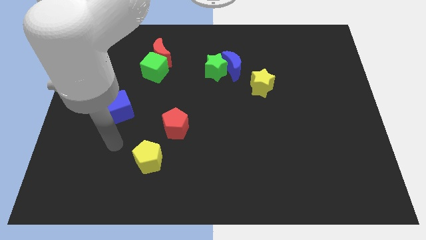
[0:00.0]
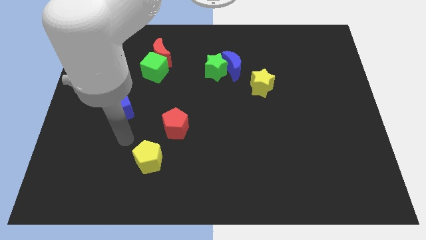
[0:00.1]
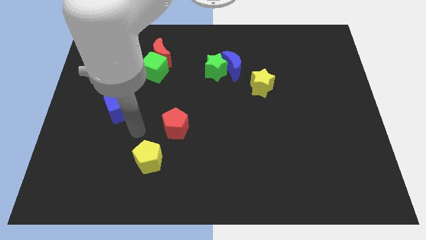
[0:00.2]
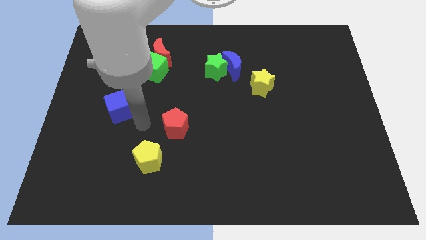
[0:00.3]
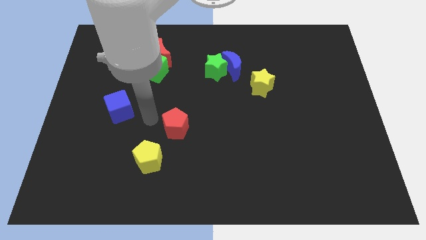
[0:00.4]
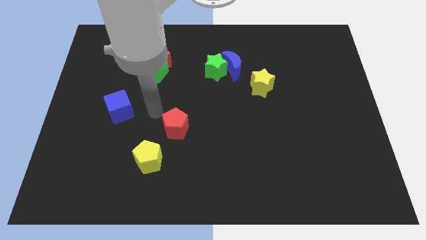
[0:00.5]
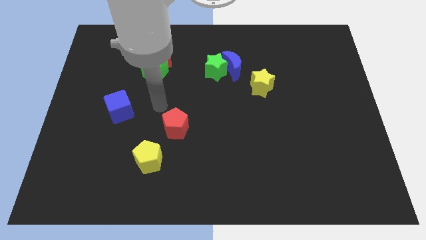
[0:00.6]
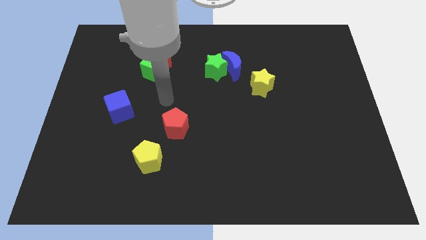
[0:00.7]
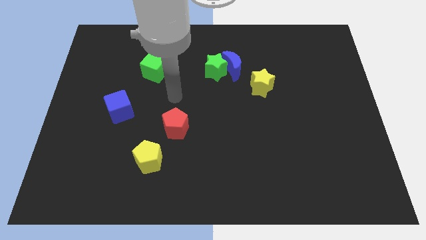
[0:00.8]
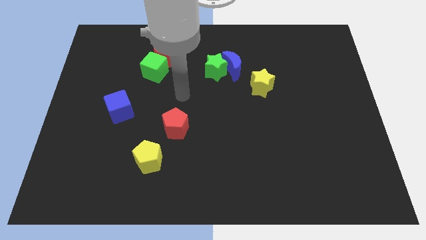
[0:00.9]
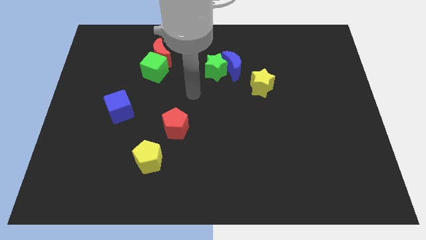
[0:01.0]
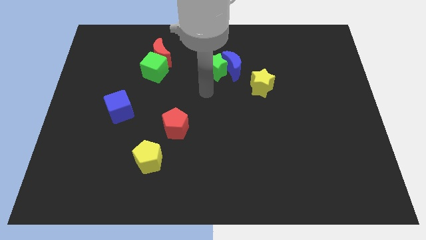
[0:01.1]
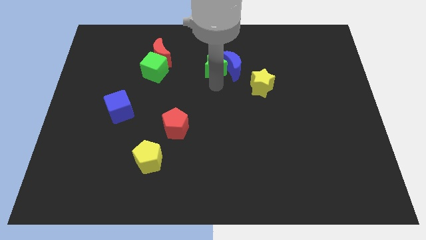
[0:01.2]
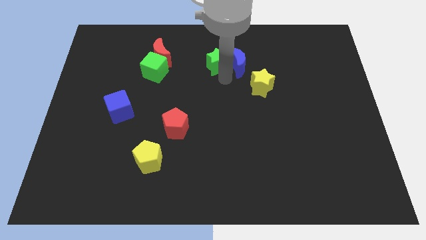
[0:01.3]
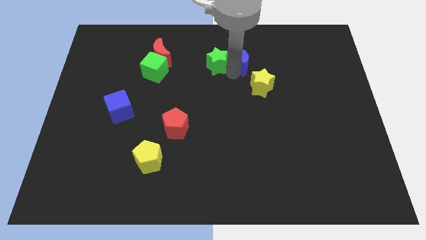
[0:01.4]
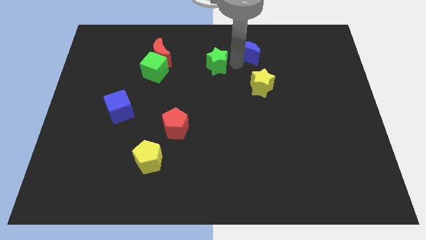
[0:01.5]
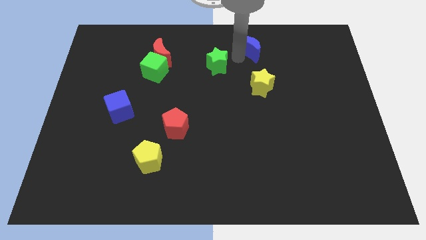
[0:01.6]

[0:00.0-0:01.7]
separate the green star from the blue moon

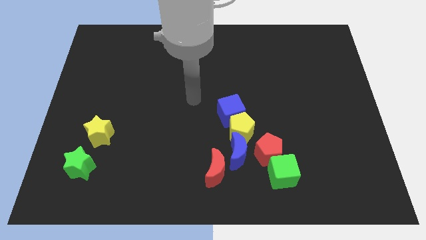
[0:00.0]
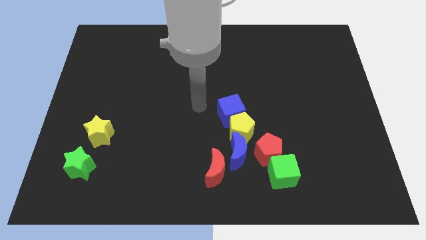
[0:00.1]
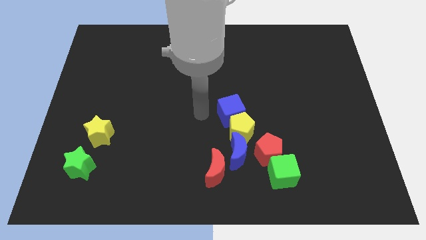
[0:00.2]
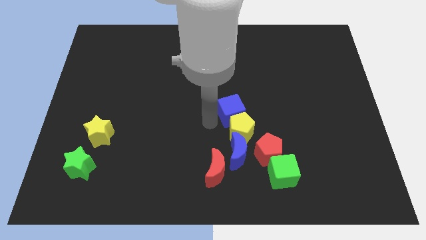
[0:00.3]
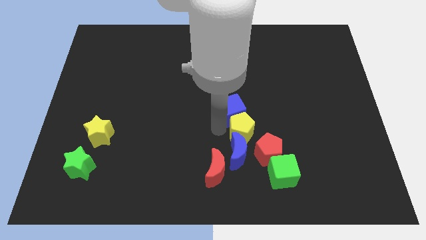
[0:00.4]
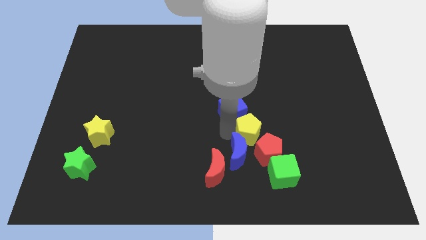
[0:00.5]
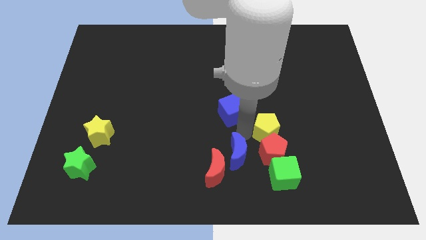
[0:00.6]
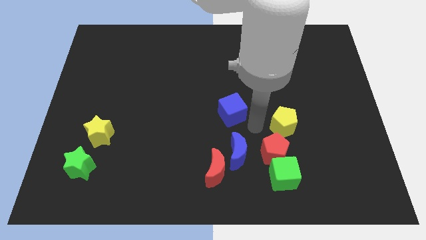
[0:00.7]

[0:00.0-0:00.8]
move the blue cube away from the yellow pentagon

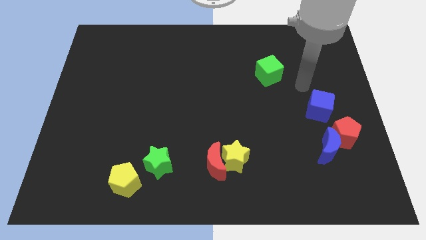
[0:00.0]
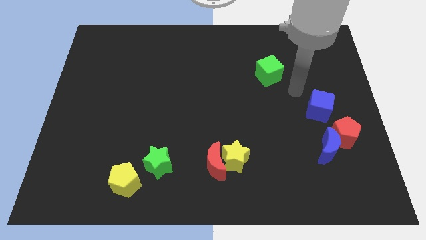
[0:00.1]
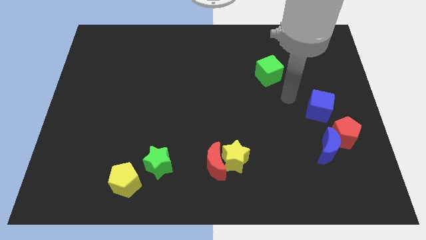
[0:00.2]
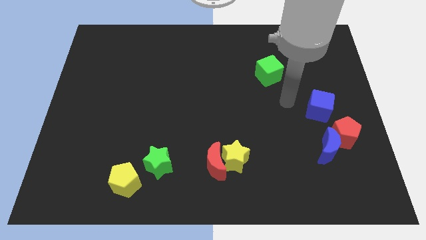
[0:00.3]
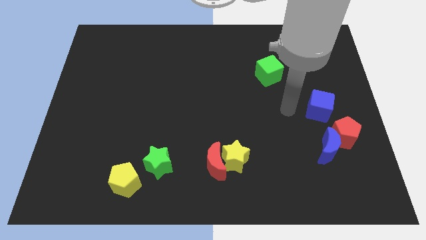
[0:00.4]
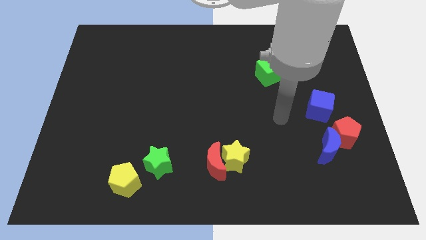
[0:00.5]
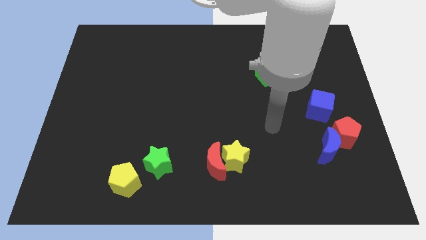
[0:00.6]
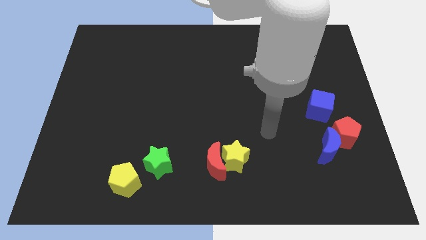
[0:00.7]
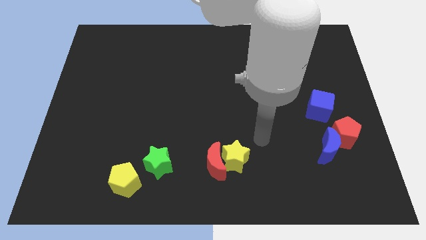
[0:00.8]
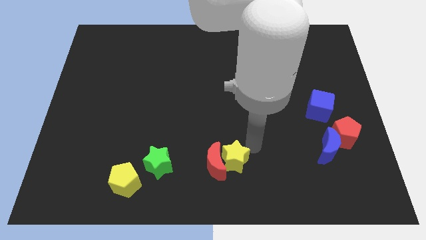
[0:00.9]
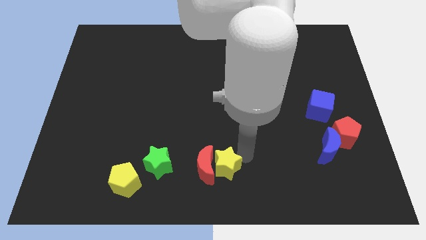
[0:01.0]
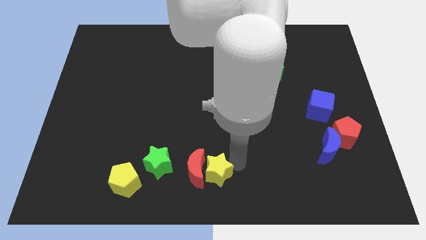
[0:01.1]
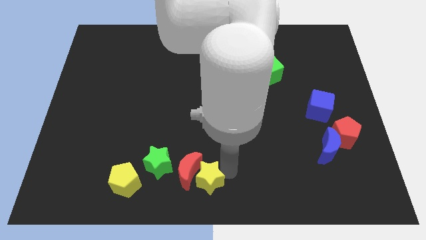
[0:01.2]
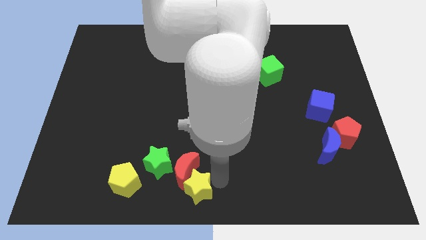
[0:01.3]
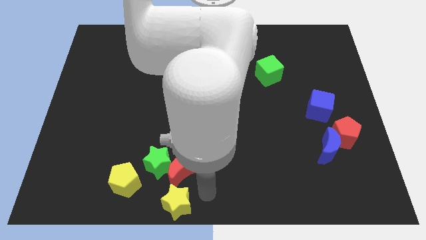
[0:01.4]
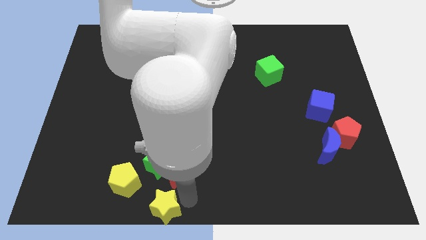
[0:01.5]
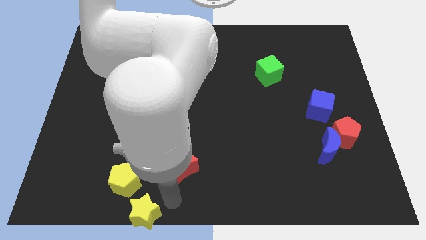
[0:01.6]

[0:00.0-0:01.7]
move the red moon away from the yellow star

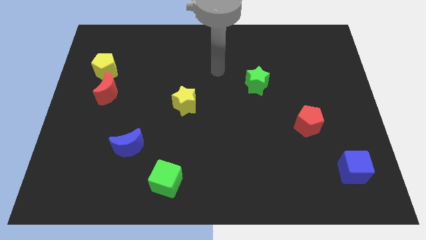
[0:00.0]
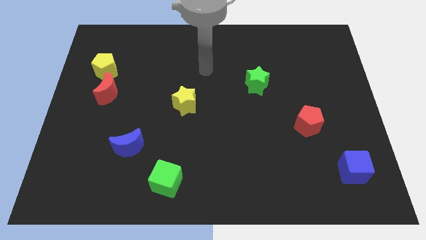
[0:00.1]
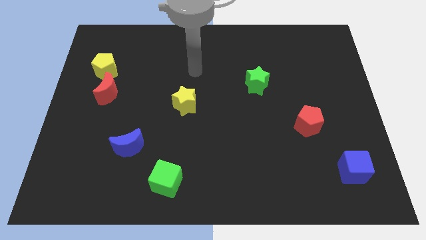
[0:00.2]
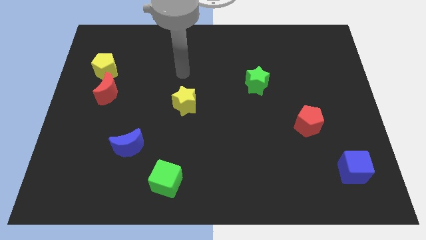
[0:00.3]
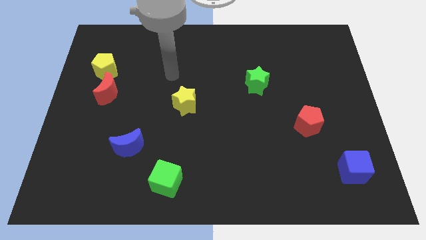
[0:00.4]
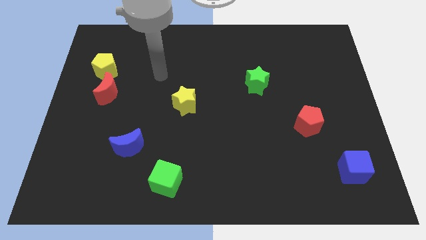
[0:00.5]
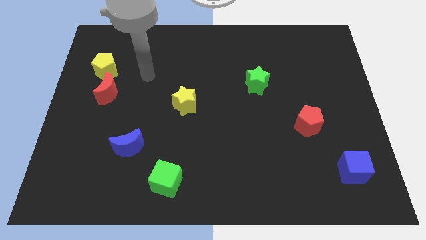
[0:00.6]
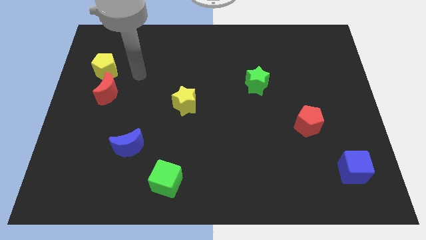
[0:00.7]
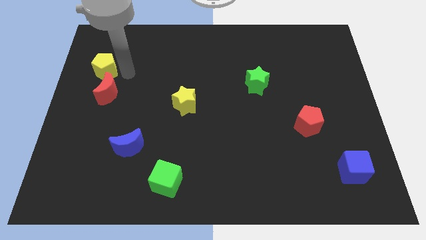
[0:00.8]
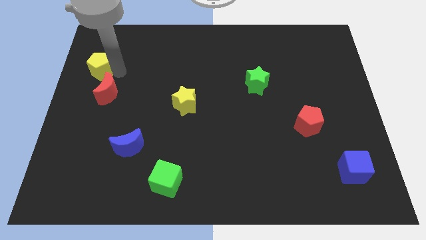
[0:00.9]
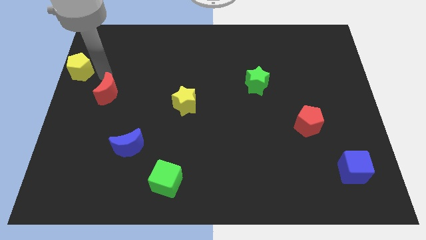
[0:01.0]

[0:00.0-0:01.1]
move the red moon away from the yellow pentagon

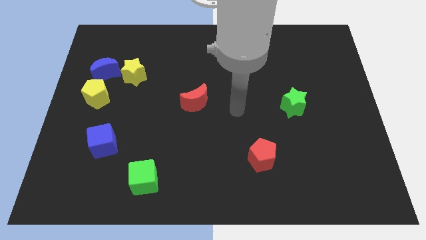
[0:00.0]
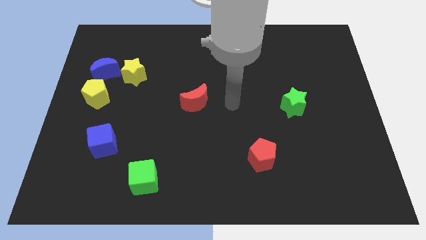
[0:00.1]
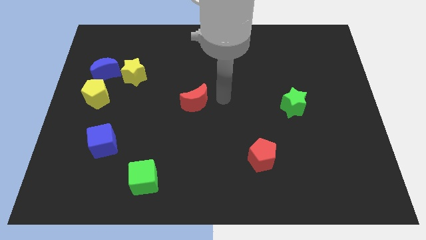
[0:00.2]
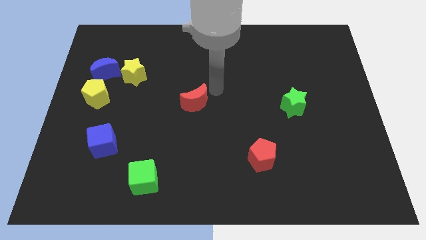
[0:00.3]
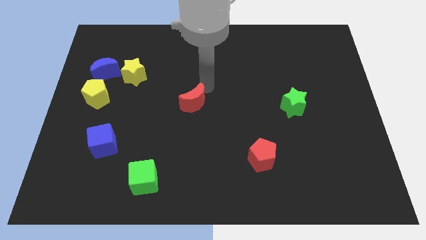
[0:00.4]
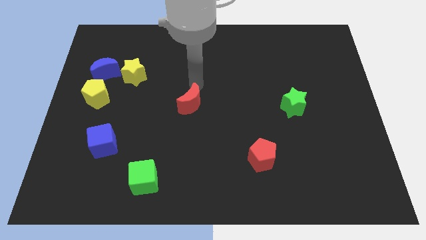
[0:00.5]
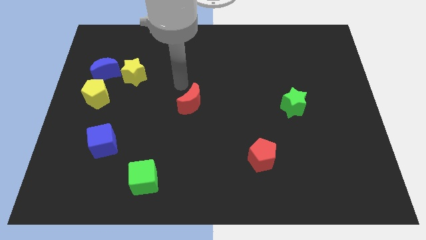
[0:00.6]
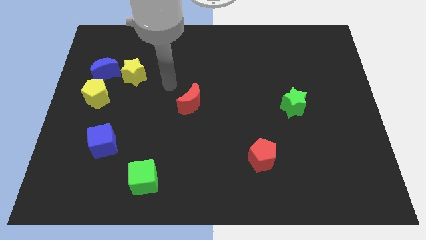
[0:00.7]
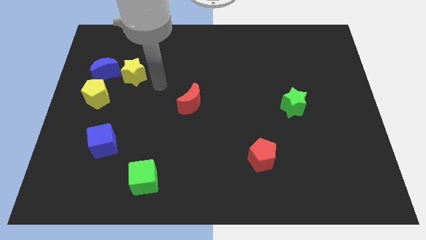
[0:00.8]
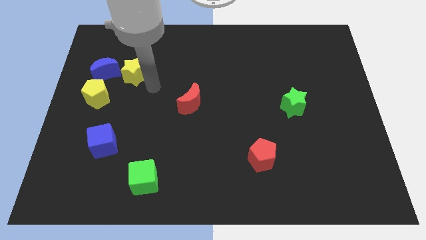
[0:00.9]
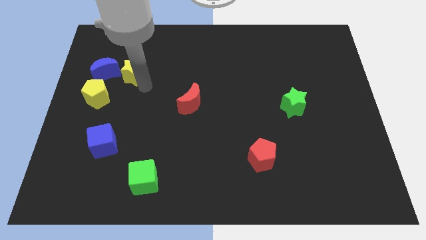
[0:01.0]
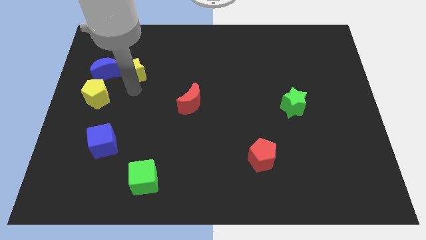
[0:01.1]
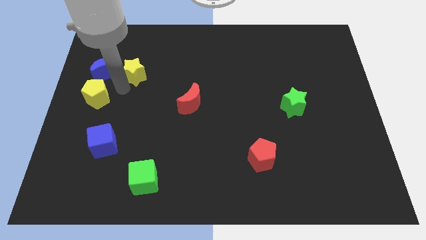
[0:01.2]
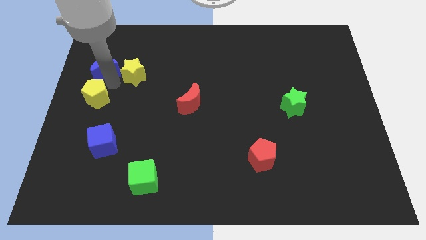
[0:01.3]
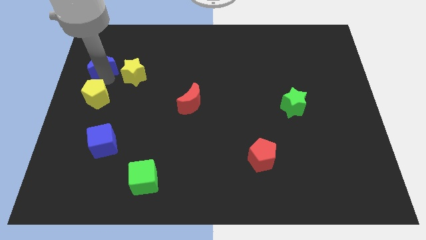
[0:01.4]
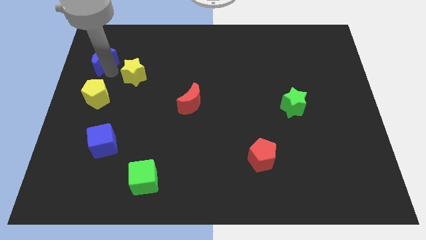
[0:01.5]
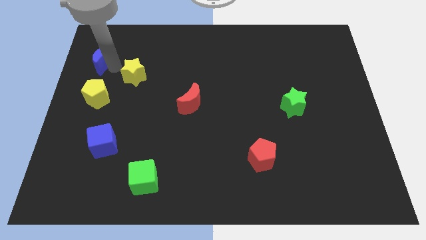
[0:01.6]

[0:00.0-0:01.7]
separate the yellow star from the blue moon

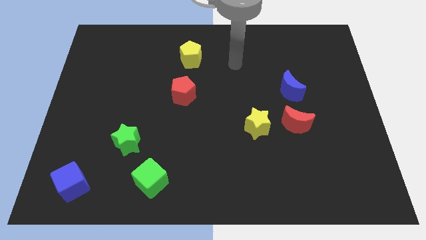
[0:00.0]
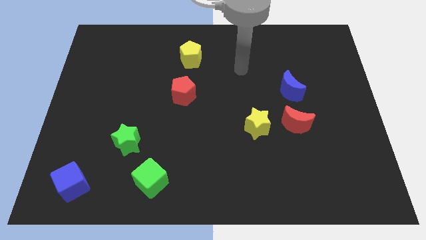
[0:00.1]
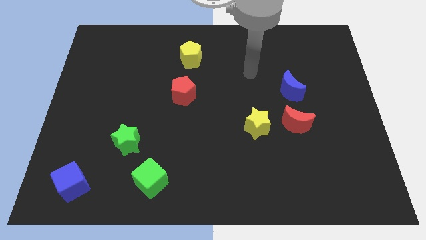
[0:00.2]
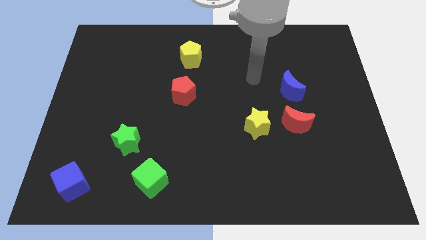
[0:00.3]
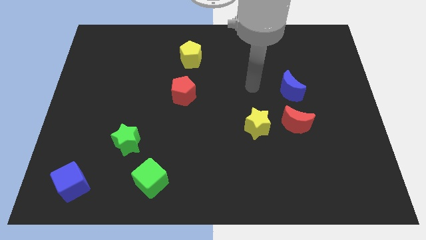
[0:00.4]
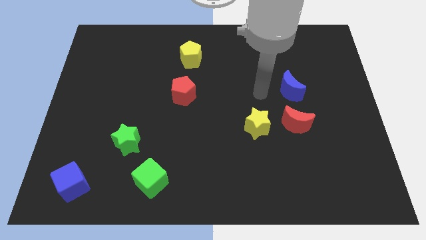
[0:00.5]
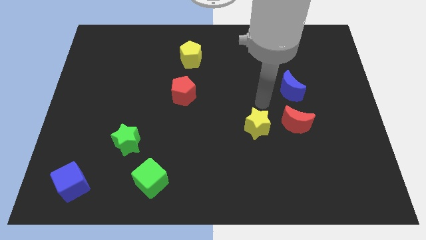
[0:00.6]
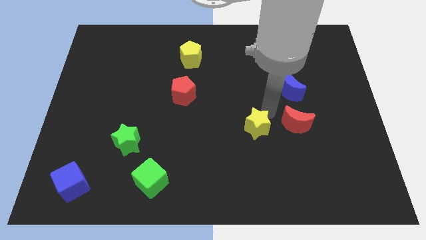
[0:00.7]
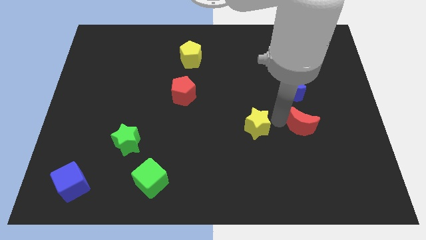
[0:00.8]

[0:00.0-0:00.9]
pull the yellow star apart from the red moon

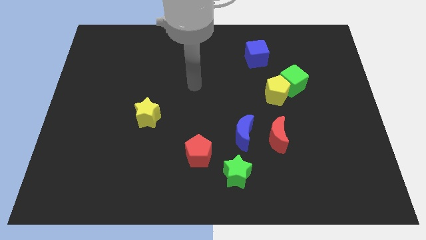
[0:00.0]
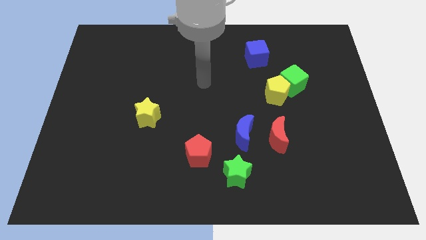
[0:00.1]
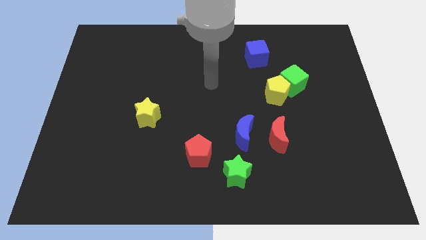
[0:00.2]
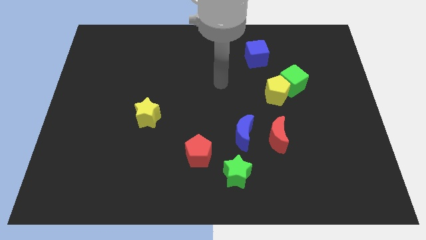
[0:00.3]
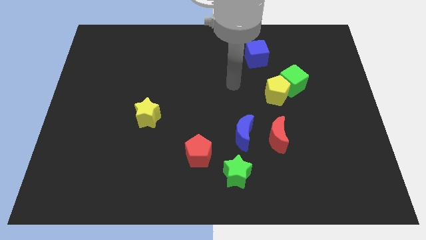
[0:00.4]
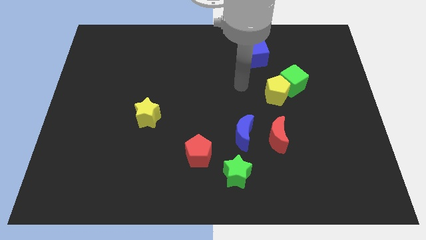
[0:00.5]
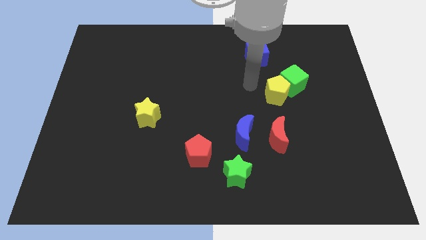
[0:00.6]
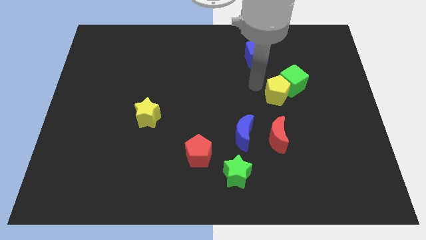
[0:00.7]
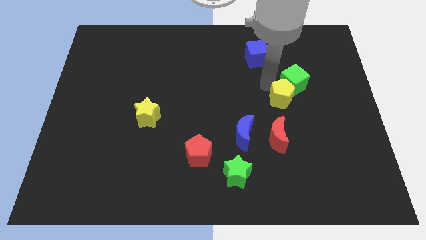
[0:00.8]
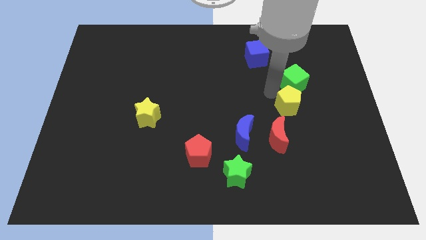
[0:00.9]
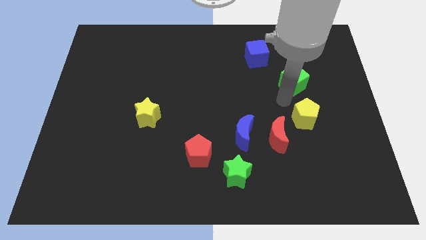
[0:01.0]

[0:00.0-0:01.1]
separate the green cube from the yellow pentagon

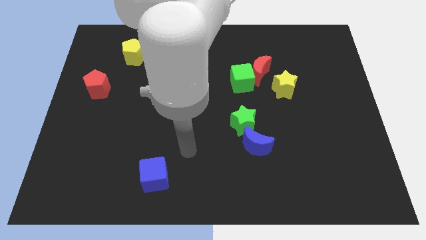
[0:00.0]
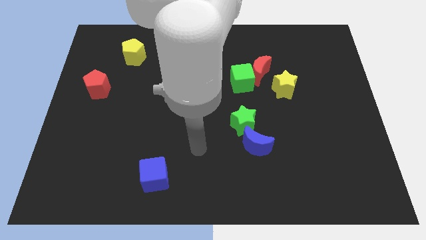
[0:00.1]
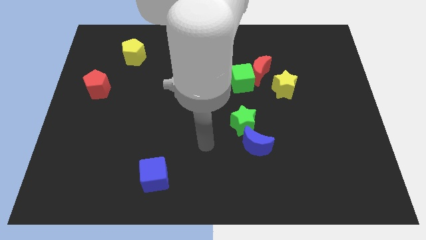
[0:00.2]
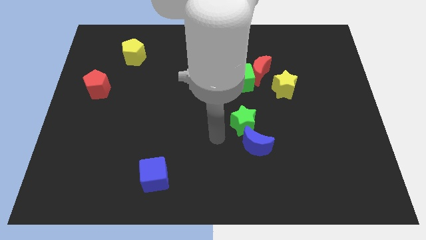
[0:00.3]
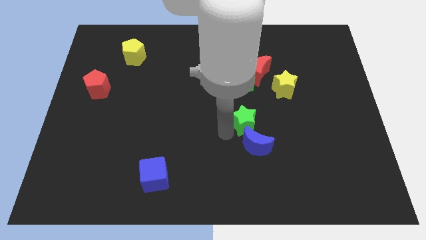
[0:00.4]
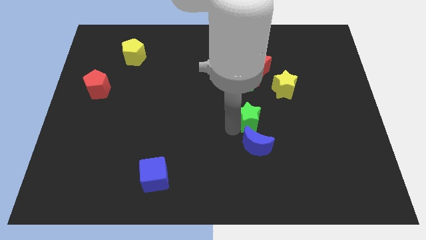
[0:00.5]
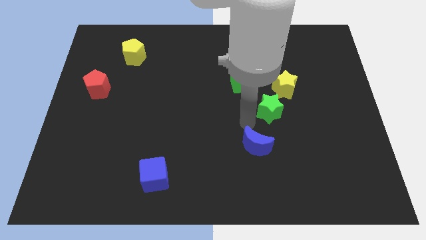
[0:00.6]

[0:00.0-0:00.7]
pull the blue moon apart from the green star
